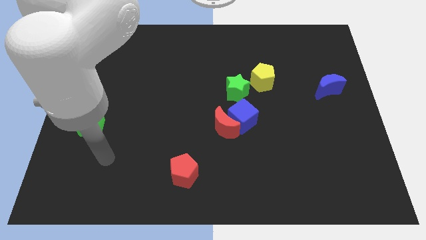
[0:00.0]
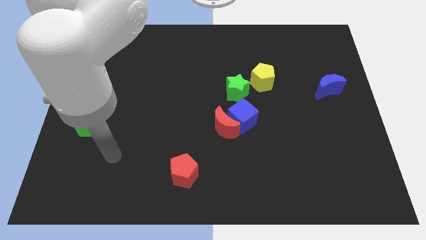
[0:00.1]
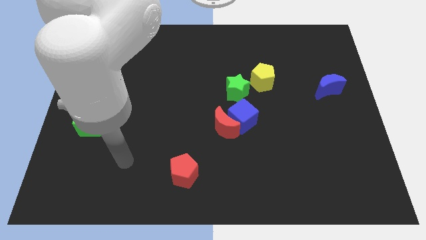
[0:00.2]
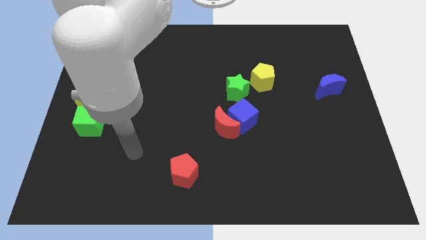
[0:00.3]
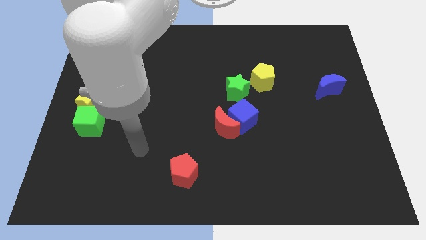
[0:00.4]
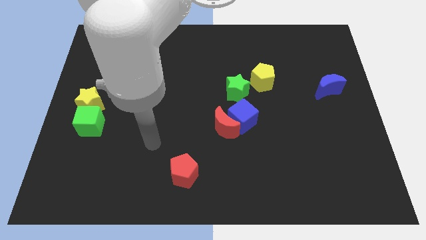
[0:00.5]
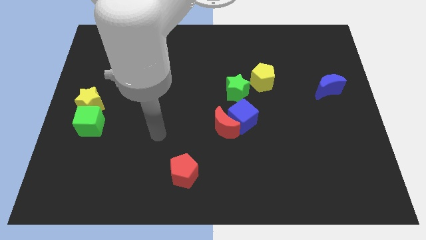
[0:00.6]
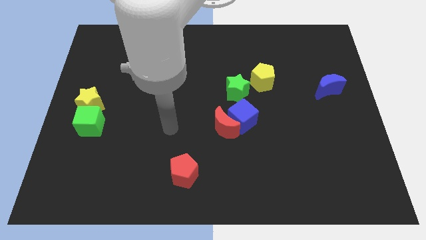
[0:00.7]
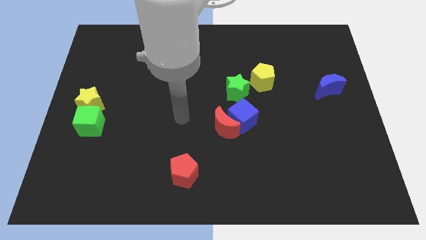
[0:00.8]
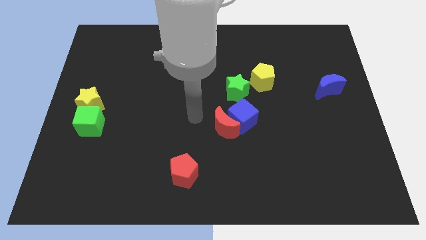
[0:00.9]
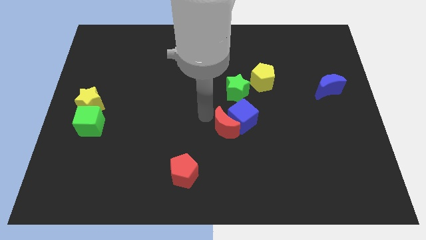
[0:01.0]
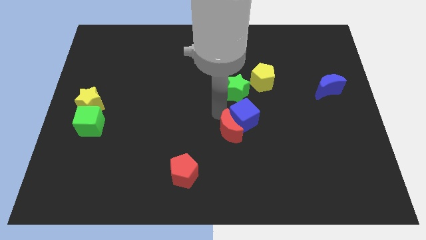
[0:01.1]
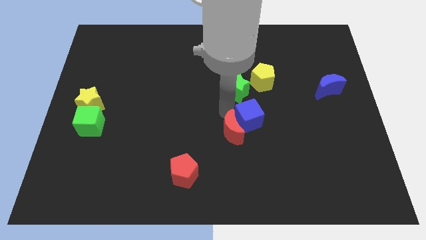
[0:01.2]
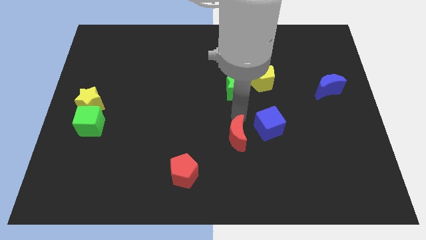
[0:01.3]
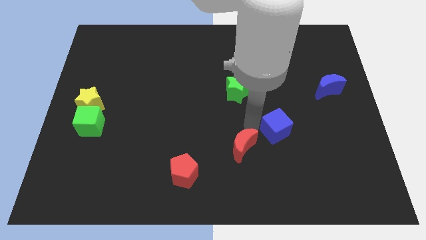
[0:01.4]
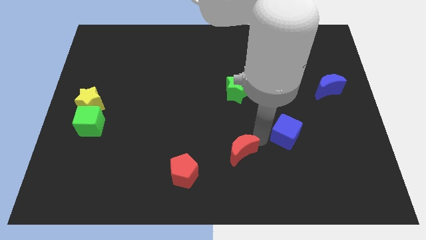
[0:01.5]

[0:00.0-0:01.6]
separate the red moon from the blue cube

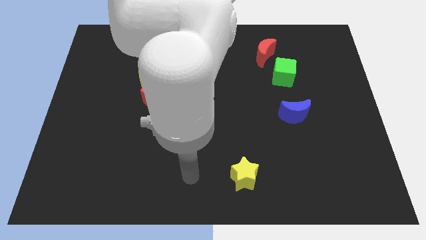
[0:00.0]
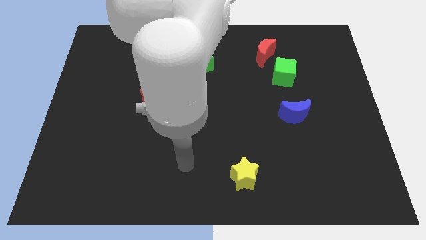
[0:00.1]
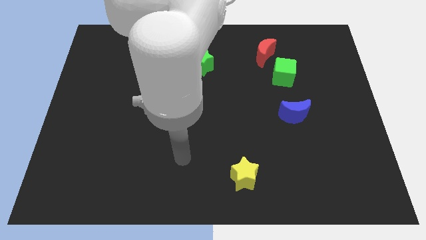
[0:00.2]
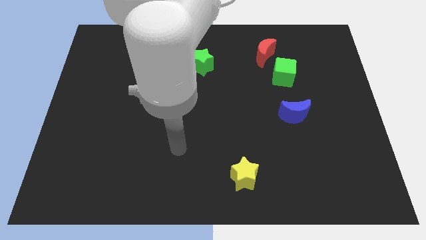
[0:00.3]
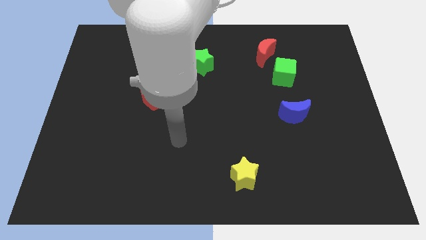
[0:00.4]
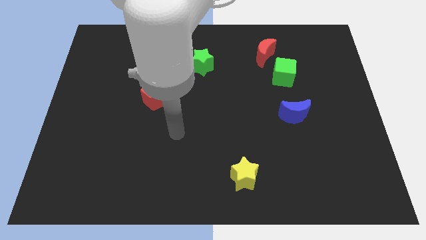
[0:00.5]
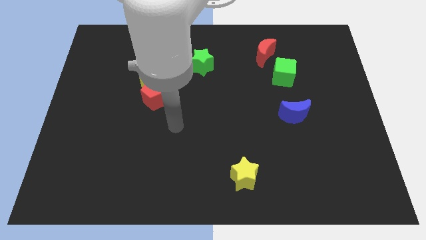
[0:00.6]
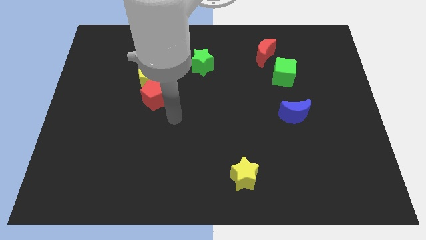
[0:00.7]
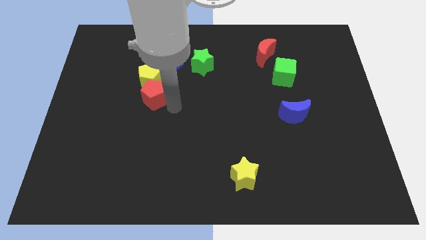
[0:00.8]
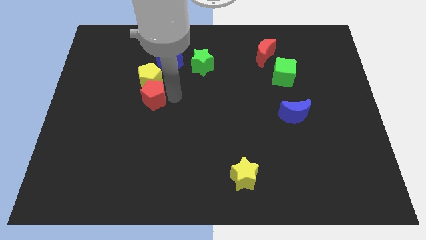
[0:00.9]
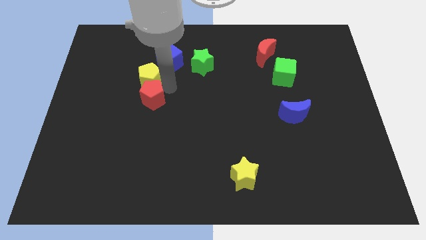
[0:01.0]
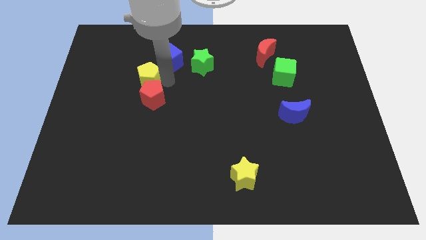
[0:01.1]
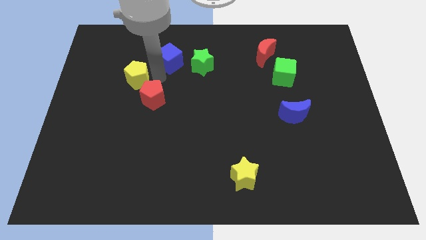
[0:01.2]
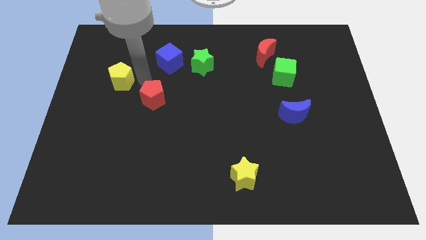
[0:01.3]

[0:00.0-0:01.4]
pull the red pentagon apart from the yellow pentagon

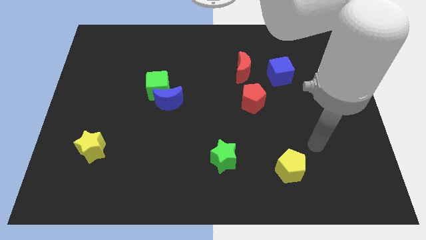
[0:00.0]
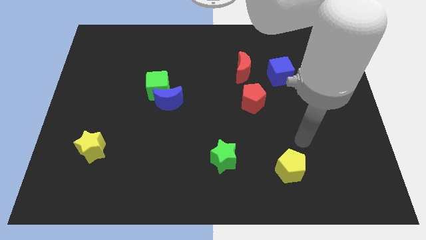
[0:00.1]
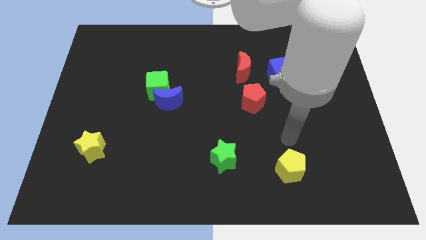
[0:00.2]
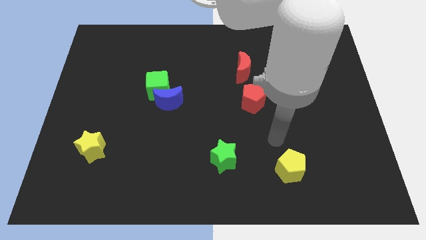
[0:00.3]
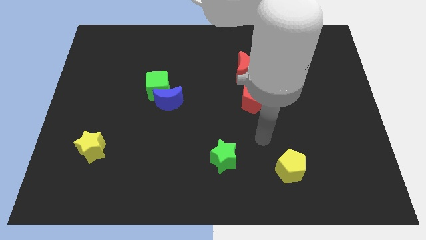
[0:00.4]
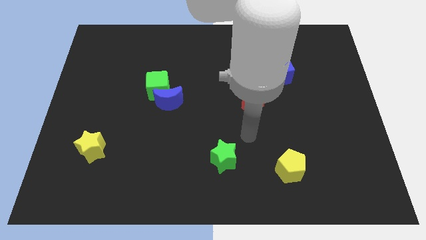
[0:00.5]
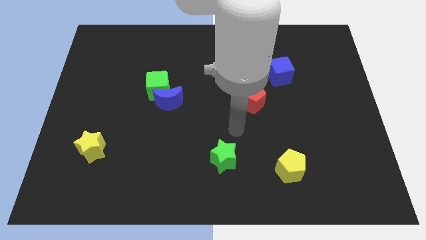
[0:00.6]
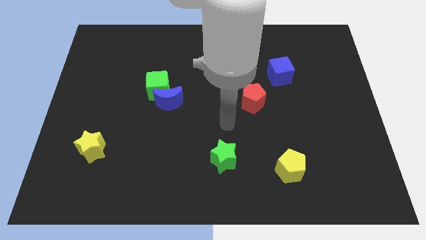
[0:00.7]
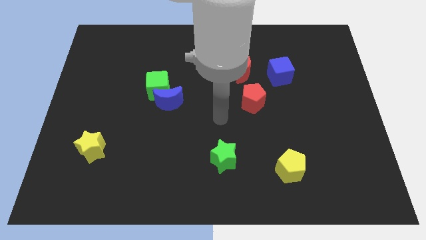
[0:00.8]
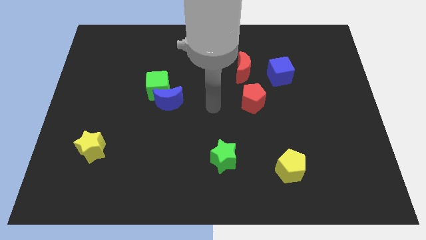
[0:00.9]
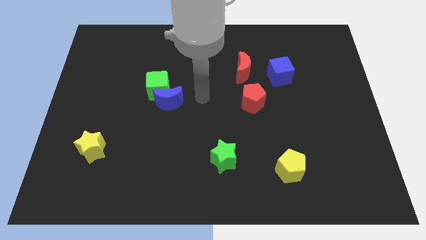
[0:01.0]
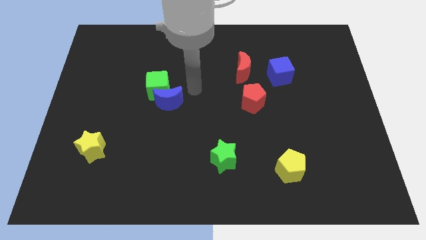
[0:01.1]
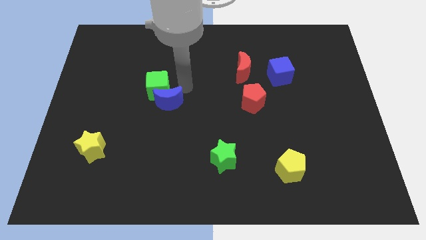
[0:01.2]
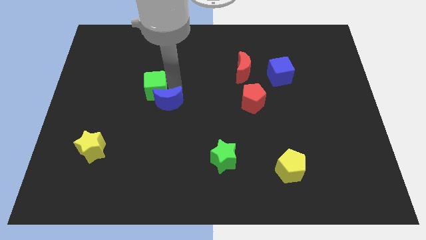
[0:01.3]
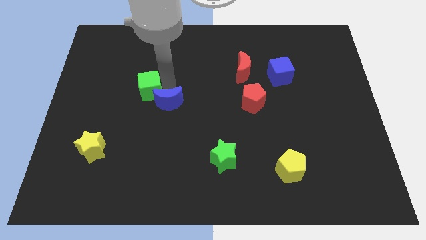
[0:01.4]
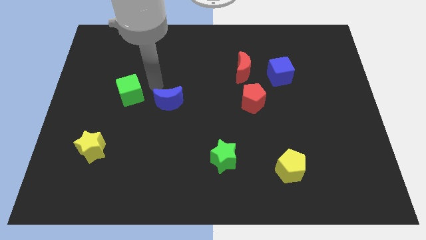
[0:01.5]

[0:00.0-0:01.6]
separate the blue moon from the green cube

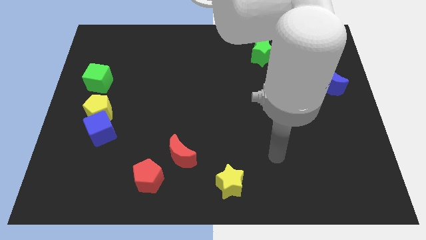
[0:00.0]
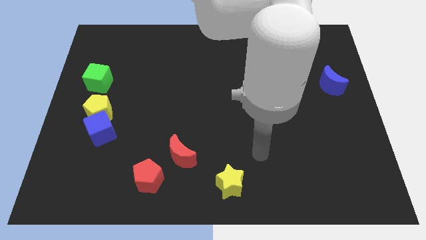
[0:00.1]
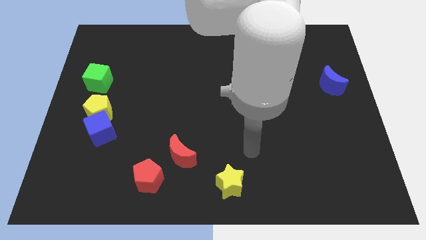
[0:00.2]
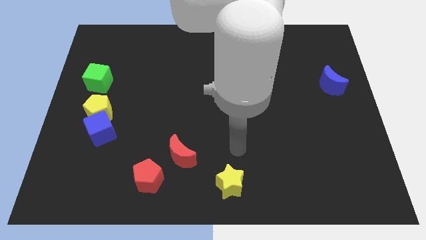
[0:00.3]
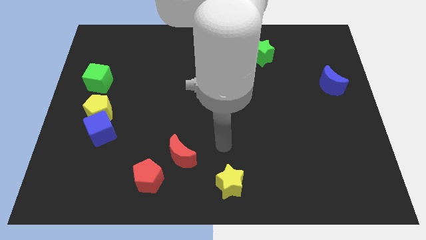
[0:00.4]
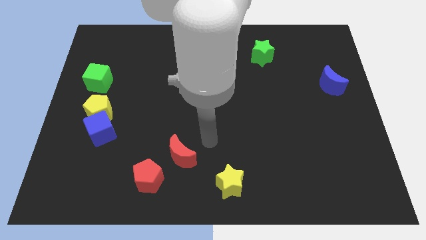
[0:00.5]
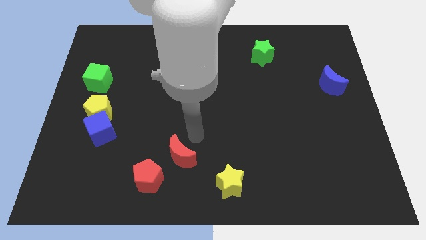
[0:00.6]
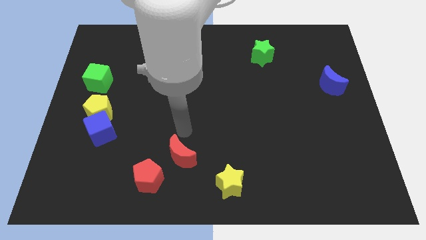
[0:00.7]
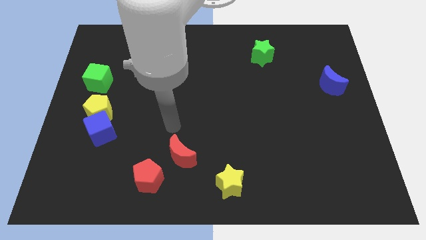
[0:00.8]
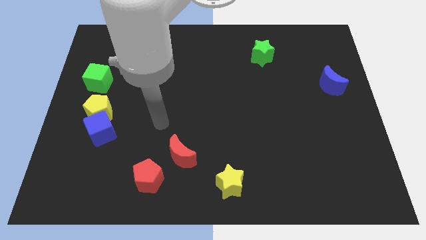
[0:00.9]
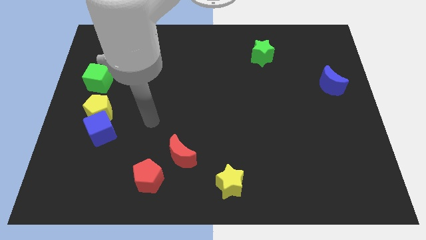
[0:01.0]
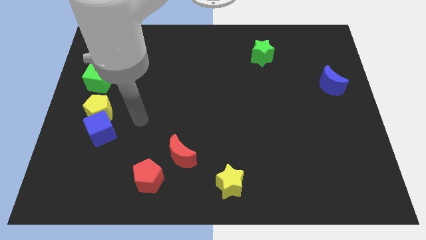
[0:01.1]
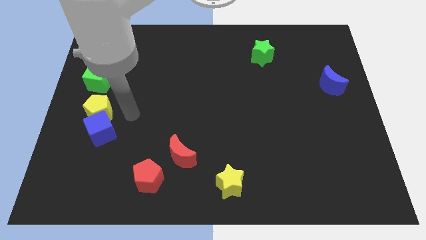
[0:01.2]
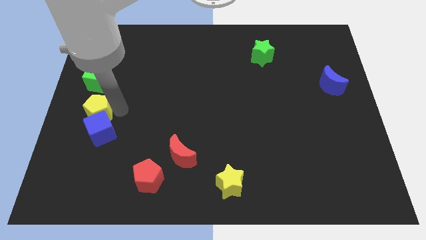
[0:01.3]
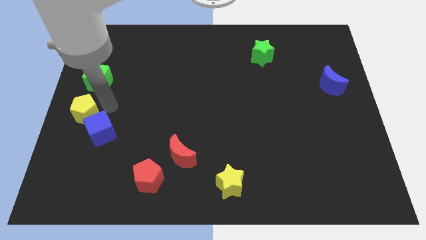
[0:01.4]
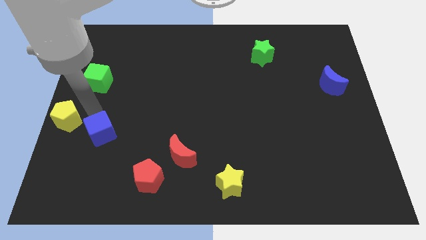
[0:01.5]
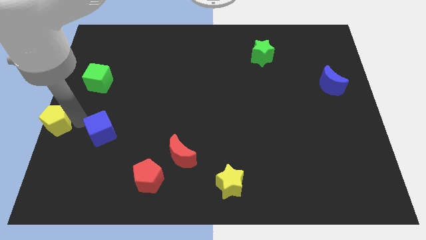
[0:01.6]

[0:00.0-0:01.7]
pull the blue cube apart from the yellow pentagon

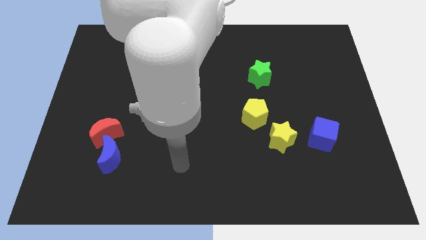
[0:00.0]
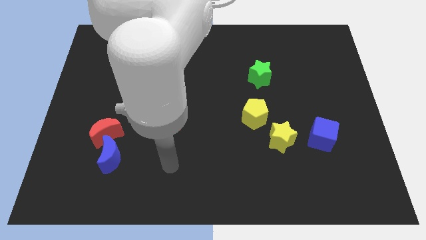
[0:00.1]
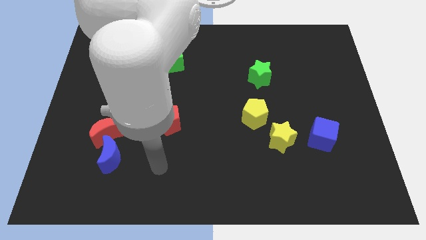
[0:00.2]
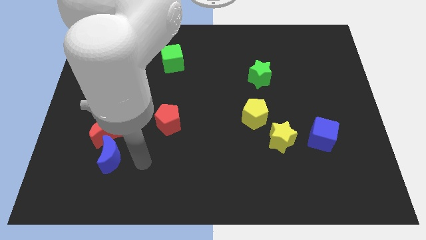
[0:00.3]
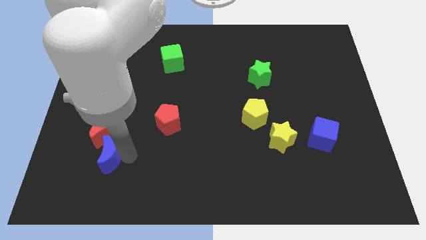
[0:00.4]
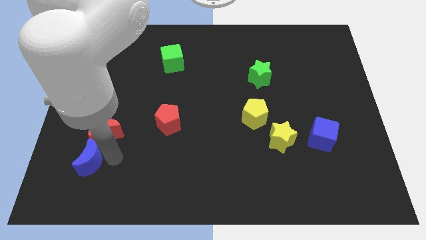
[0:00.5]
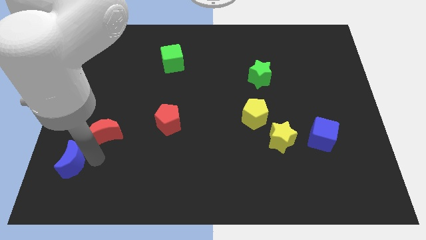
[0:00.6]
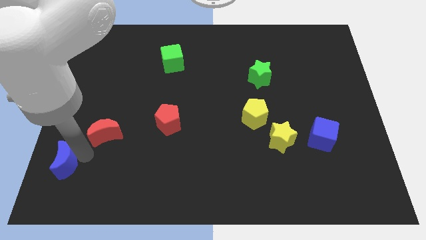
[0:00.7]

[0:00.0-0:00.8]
pull the red moon apart from the blue moon

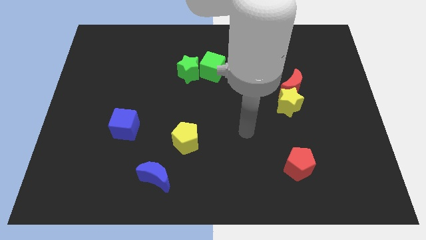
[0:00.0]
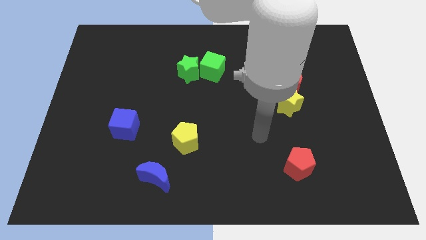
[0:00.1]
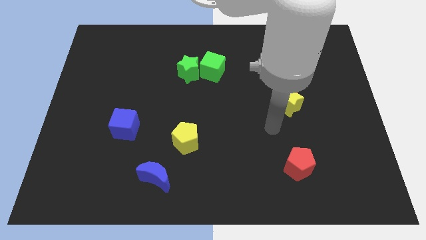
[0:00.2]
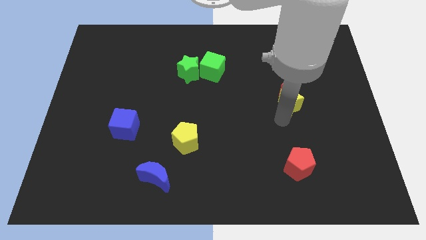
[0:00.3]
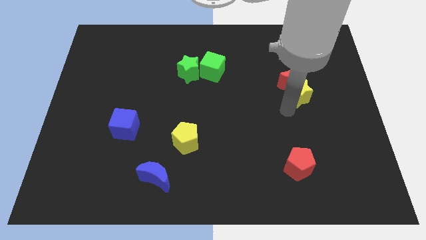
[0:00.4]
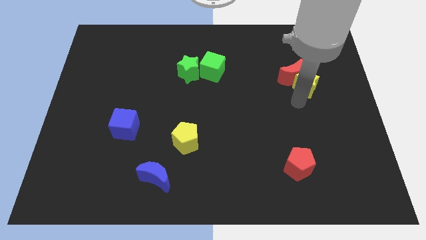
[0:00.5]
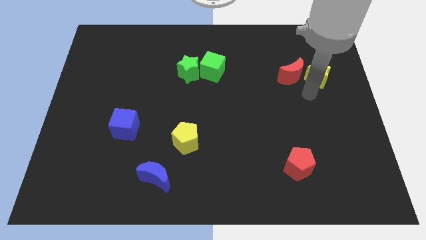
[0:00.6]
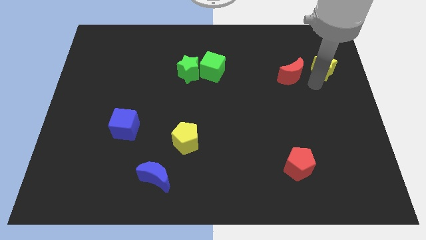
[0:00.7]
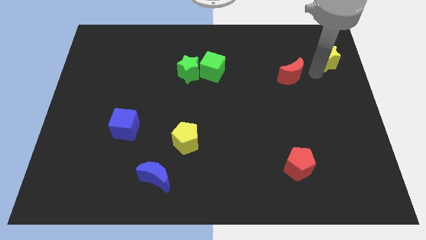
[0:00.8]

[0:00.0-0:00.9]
pull the red moon apart from the yellow star

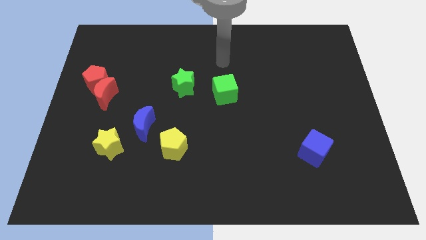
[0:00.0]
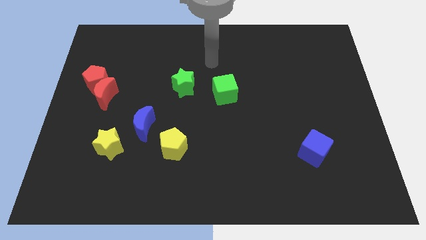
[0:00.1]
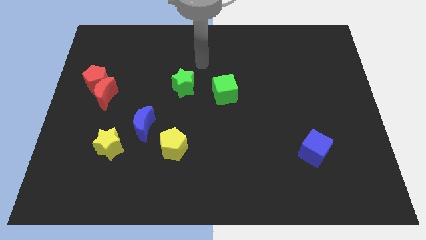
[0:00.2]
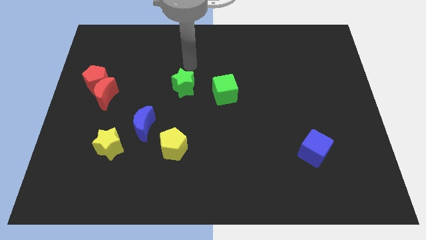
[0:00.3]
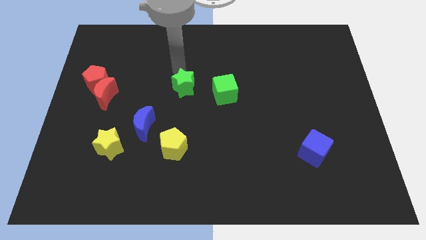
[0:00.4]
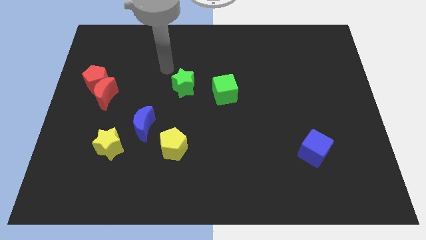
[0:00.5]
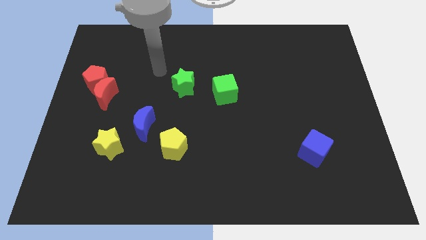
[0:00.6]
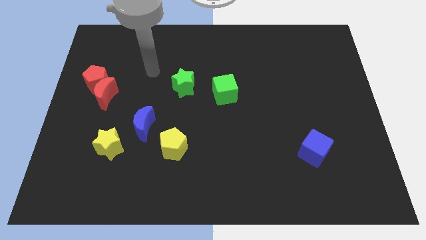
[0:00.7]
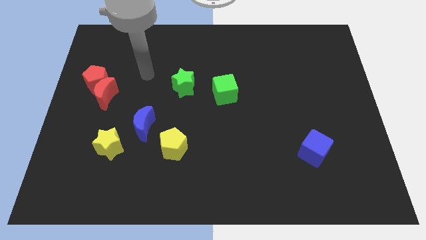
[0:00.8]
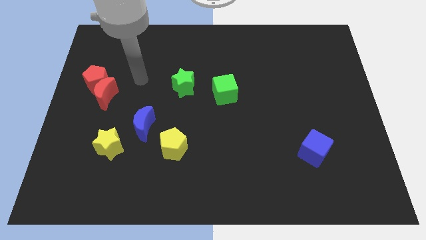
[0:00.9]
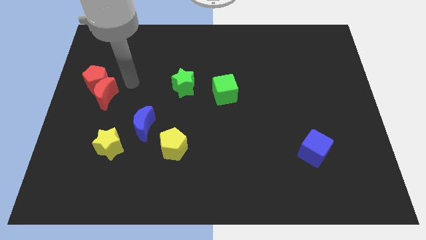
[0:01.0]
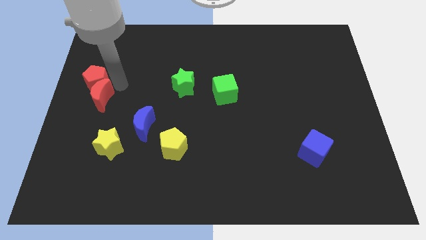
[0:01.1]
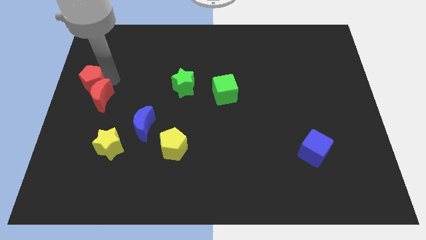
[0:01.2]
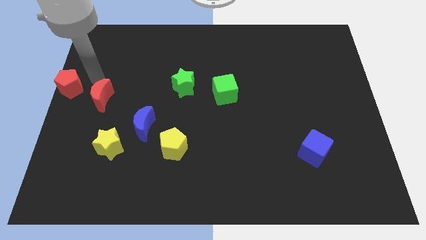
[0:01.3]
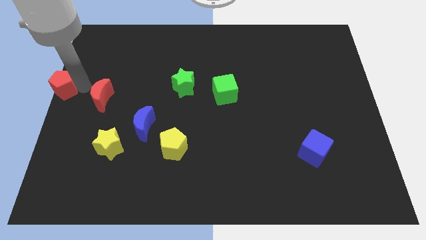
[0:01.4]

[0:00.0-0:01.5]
pull the red moon apart from the red pentagon
